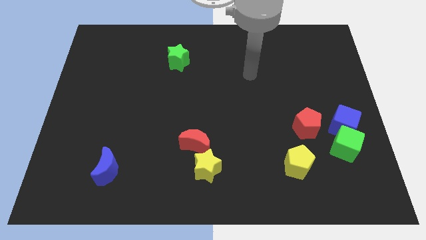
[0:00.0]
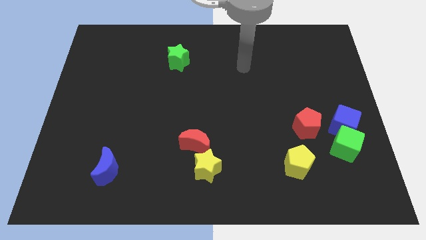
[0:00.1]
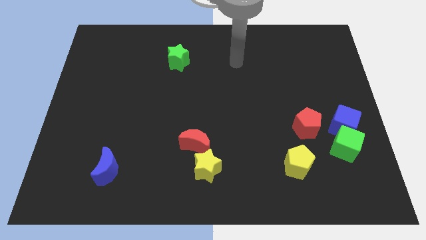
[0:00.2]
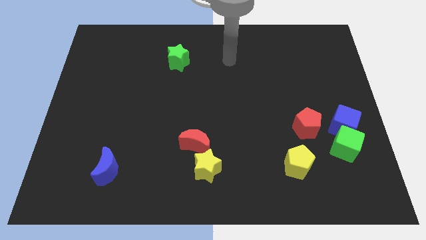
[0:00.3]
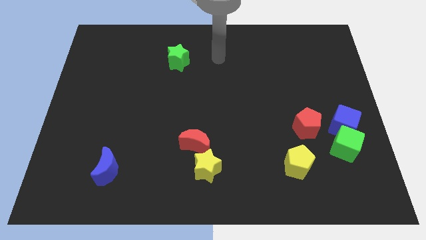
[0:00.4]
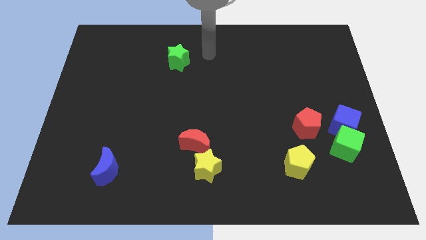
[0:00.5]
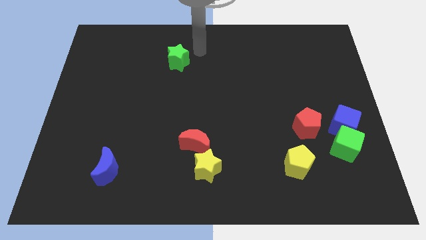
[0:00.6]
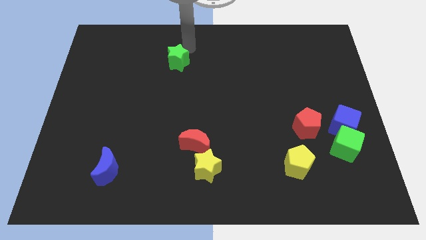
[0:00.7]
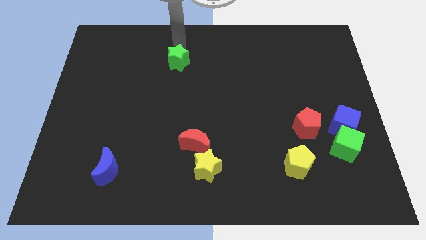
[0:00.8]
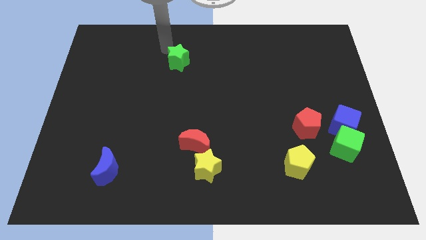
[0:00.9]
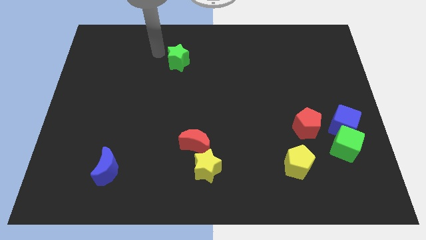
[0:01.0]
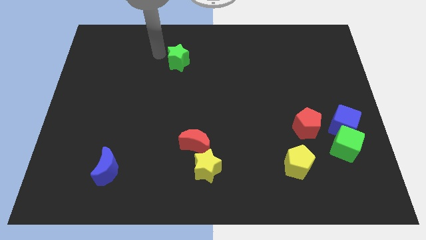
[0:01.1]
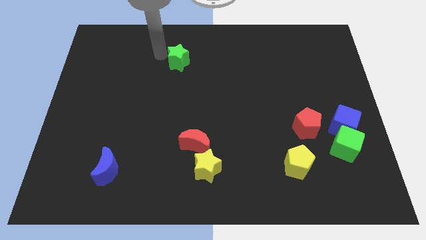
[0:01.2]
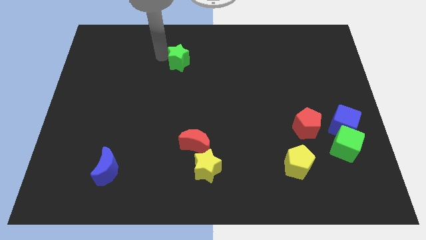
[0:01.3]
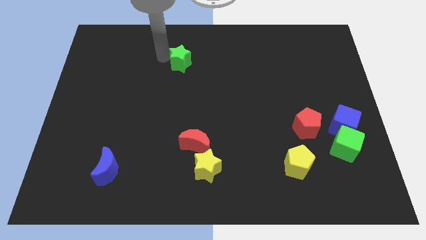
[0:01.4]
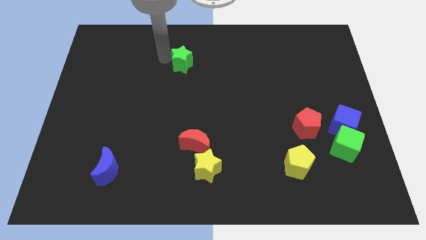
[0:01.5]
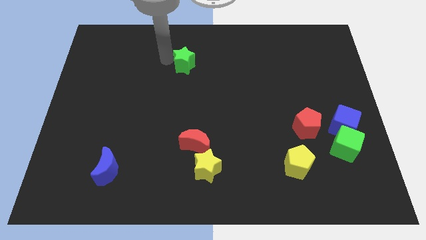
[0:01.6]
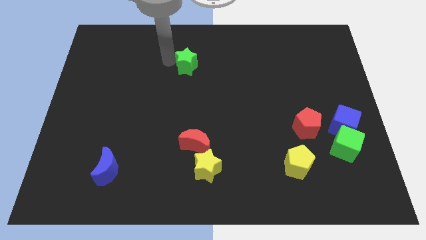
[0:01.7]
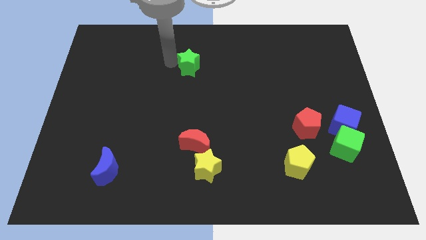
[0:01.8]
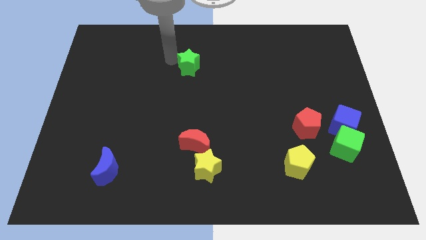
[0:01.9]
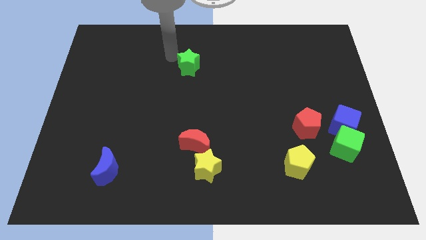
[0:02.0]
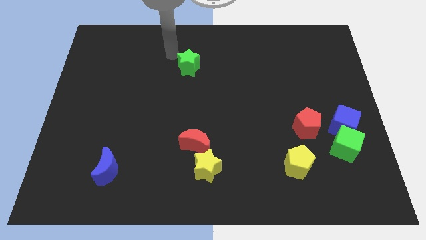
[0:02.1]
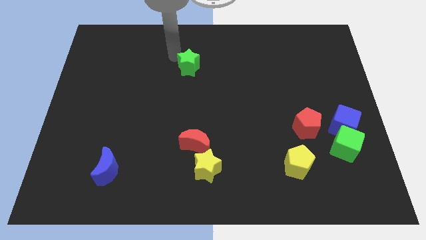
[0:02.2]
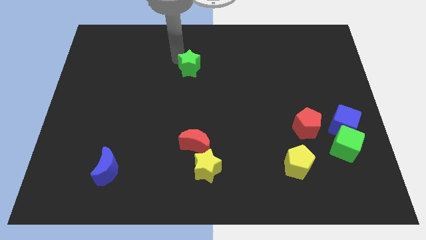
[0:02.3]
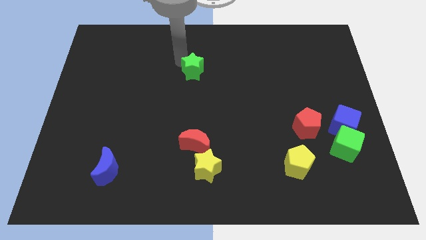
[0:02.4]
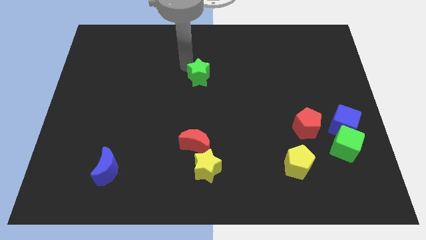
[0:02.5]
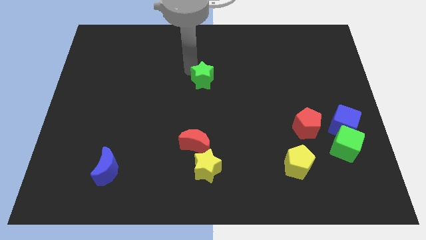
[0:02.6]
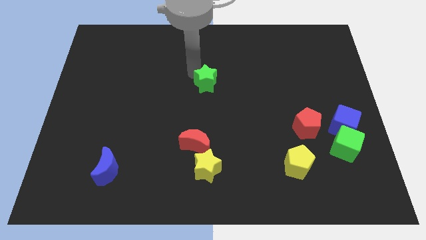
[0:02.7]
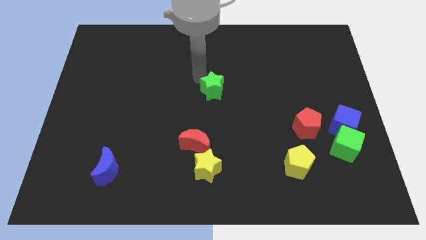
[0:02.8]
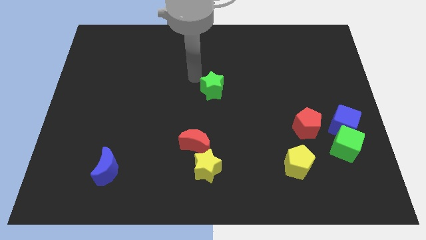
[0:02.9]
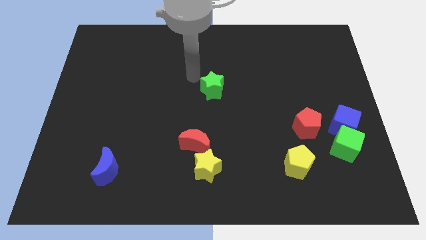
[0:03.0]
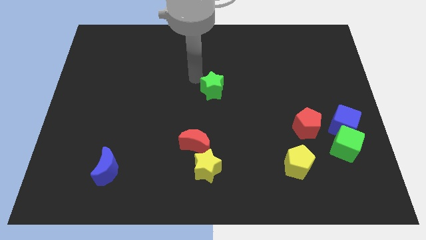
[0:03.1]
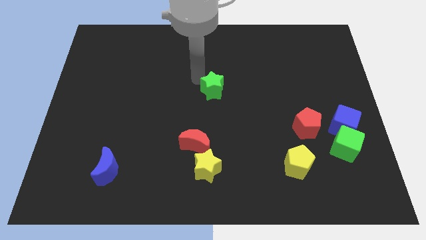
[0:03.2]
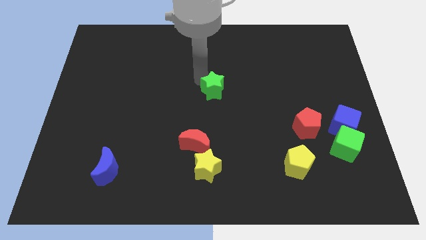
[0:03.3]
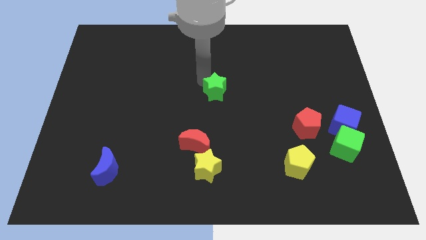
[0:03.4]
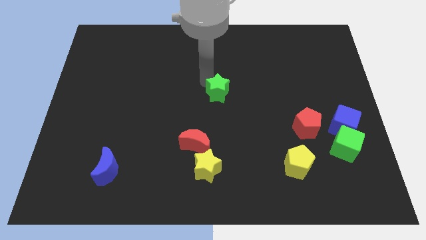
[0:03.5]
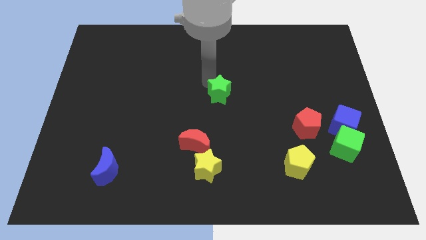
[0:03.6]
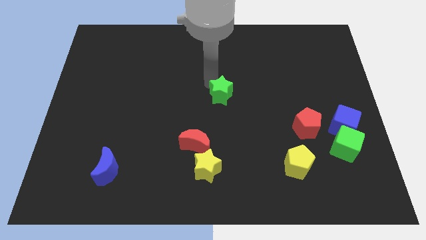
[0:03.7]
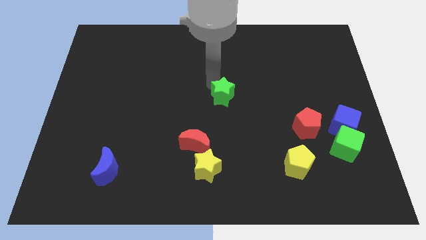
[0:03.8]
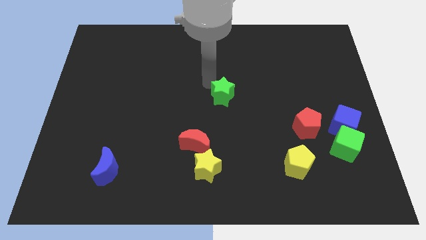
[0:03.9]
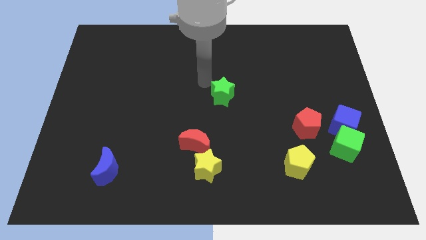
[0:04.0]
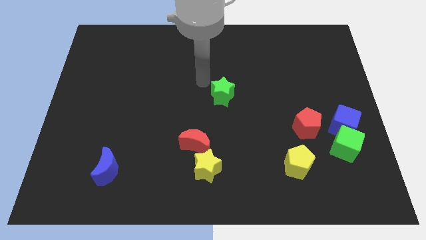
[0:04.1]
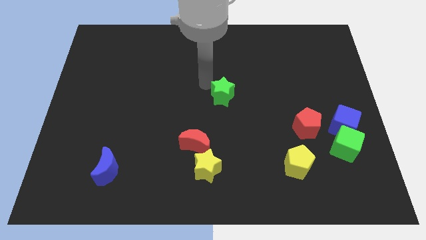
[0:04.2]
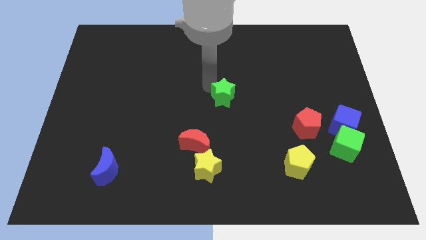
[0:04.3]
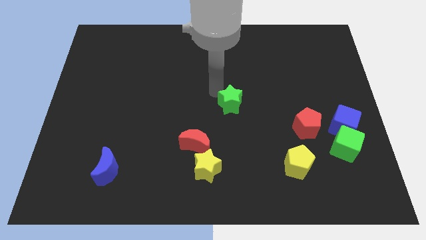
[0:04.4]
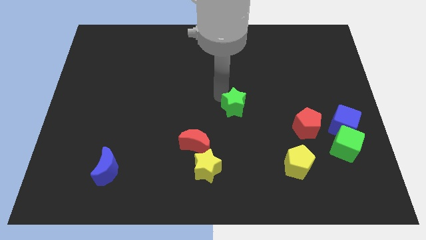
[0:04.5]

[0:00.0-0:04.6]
slide the green star diagonally down and to the right

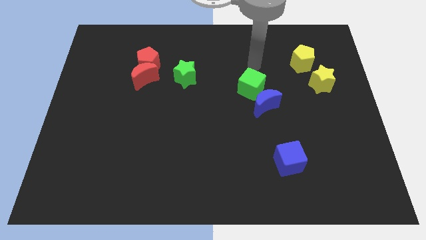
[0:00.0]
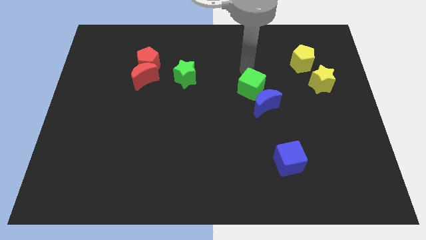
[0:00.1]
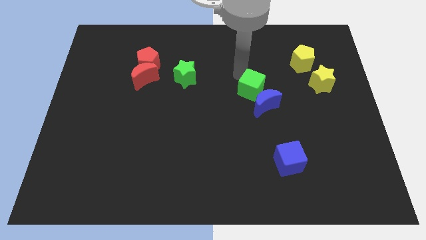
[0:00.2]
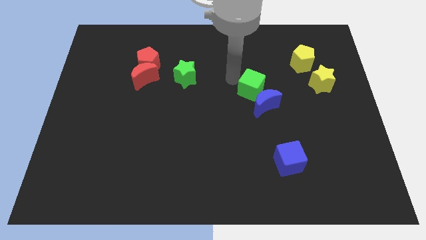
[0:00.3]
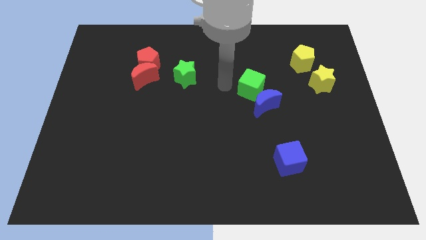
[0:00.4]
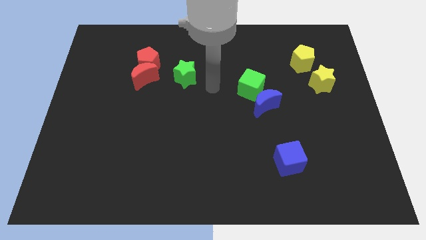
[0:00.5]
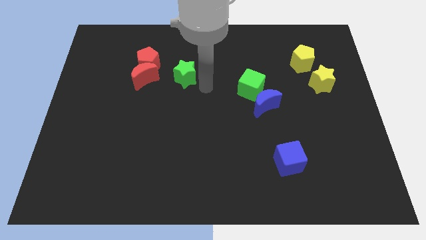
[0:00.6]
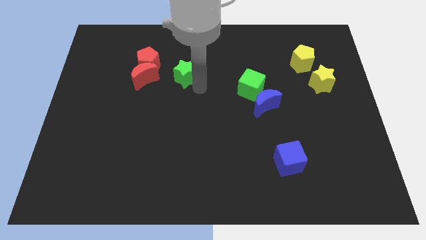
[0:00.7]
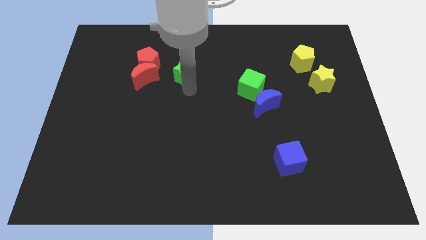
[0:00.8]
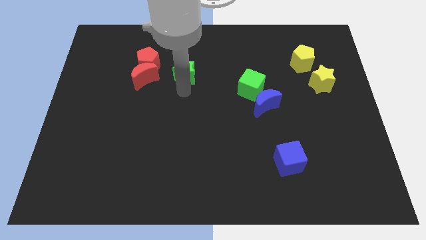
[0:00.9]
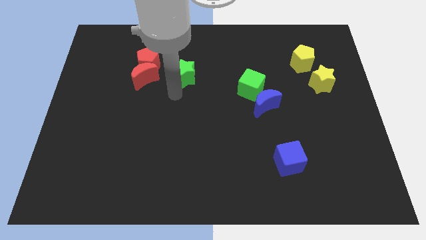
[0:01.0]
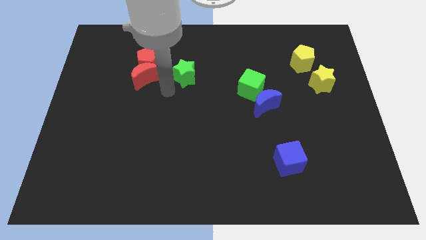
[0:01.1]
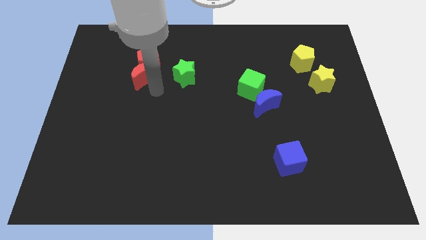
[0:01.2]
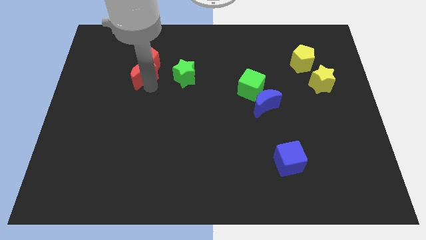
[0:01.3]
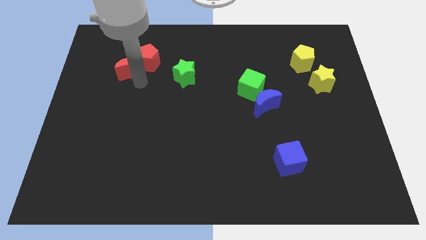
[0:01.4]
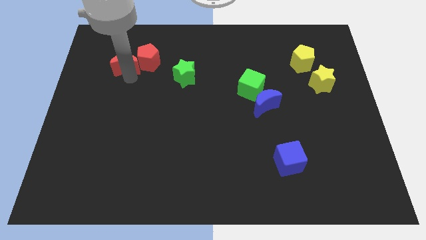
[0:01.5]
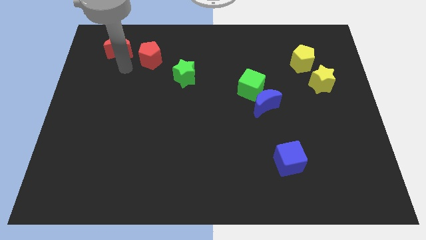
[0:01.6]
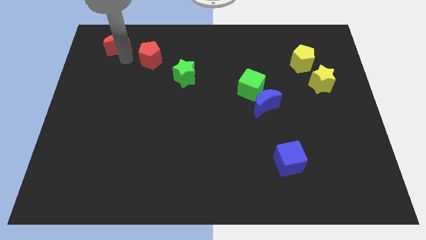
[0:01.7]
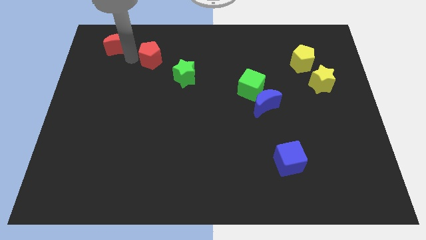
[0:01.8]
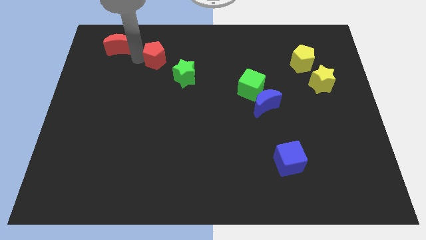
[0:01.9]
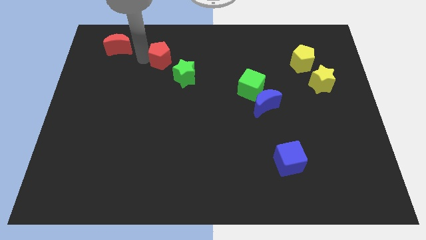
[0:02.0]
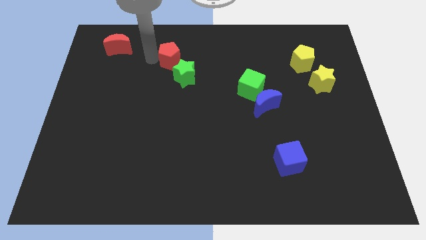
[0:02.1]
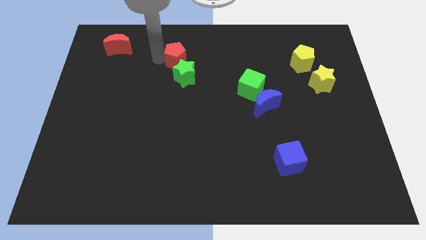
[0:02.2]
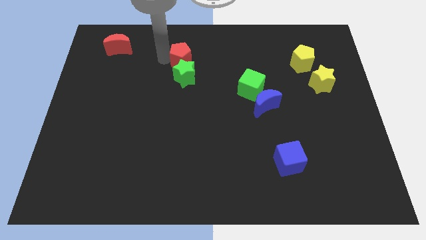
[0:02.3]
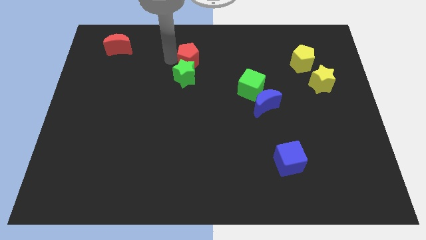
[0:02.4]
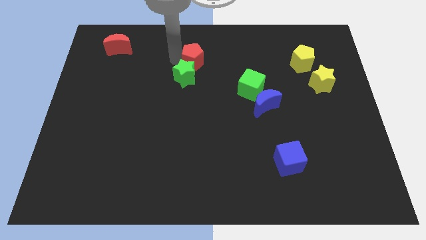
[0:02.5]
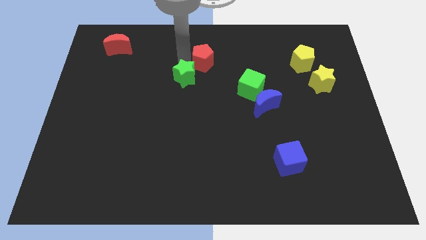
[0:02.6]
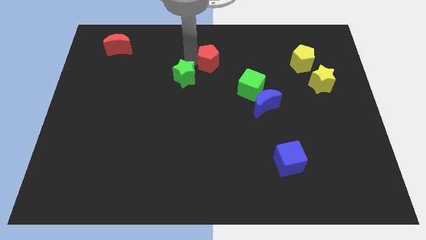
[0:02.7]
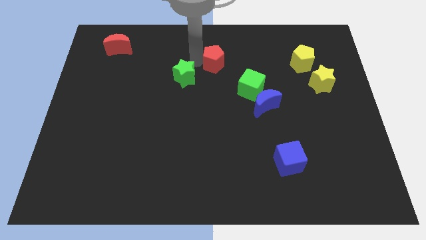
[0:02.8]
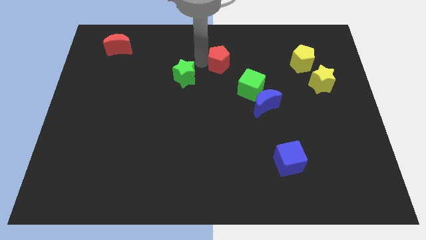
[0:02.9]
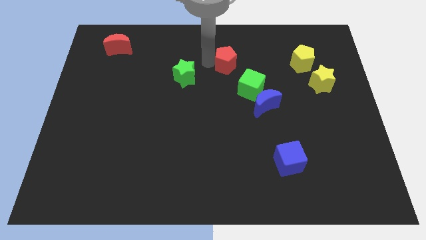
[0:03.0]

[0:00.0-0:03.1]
move the red pentagon to the right
